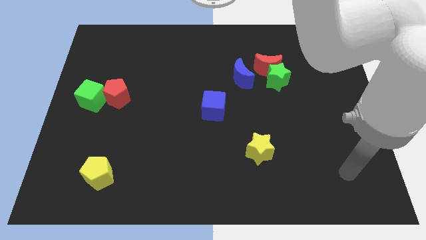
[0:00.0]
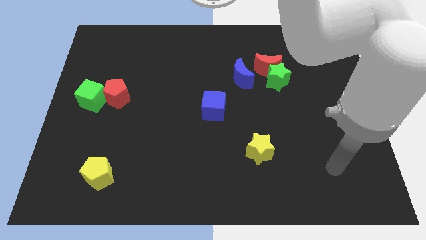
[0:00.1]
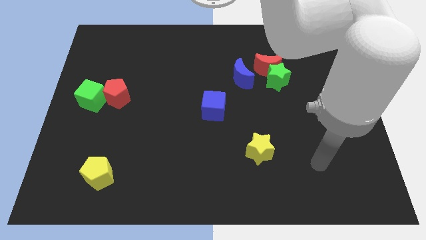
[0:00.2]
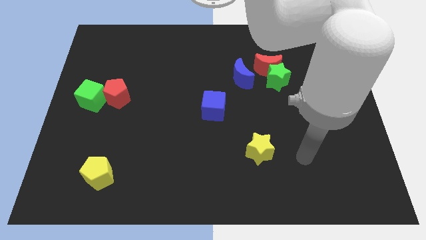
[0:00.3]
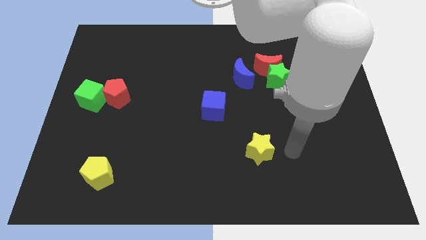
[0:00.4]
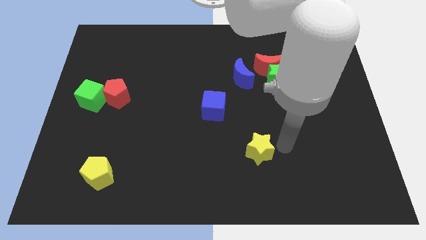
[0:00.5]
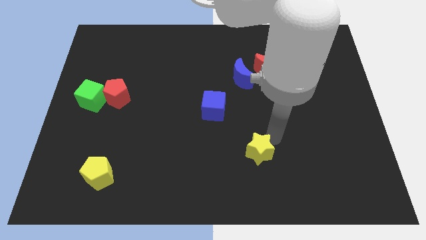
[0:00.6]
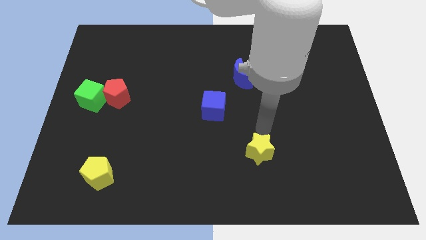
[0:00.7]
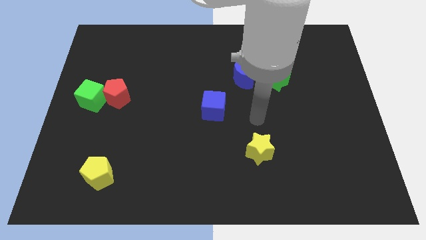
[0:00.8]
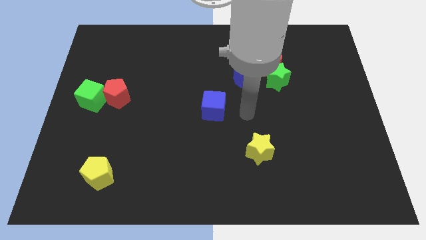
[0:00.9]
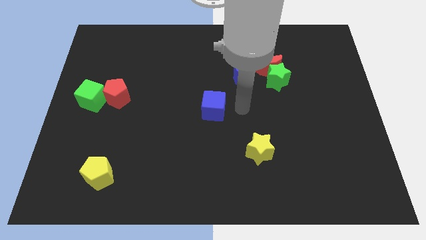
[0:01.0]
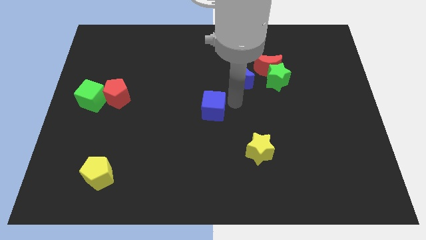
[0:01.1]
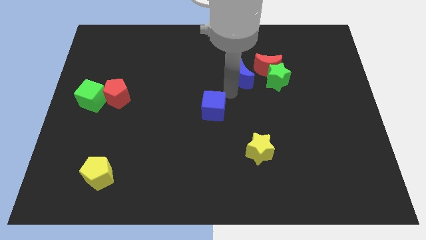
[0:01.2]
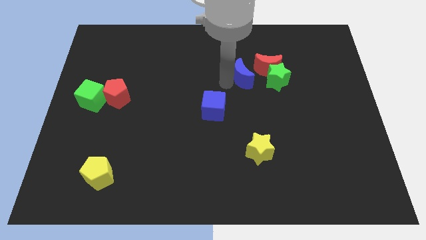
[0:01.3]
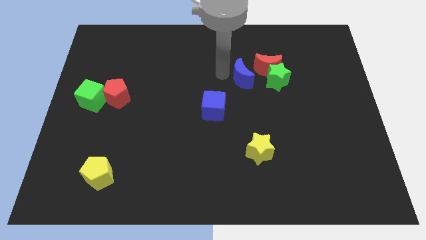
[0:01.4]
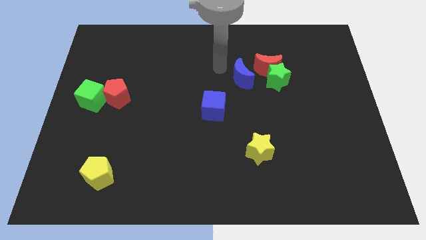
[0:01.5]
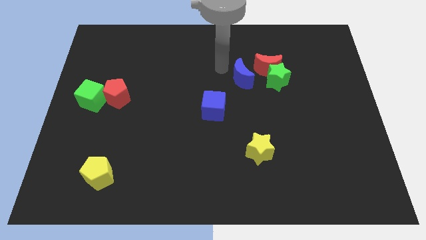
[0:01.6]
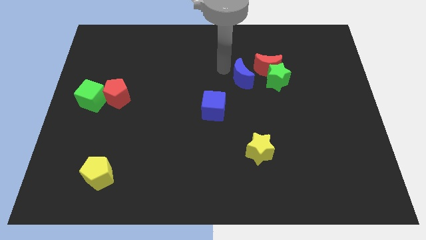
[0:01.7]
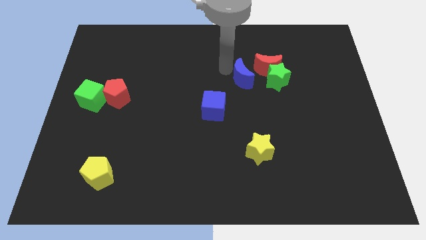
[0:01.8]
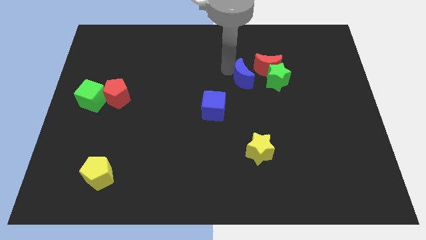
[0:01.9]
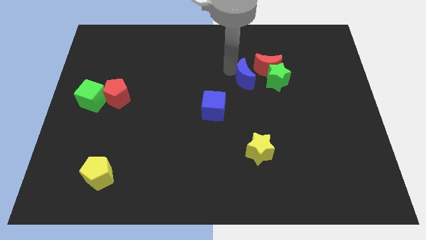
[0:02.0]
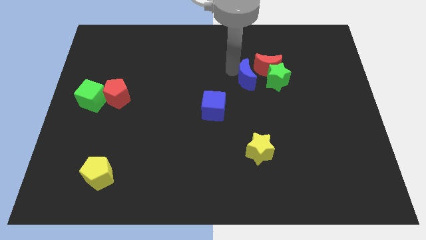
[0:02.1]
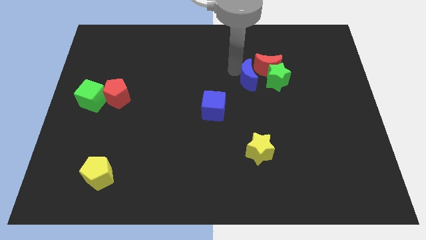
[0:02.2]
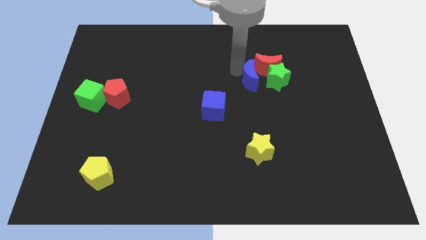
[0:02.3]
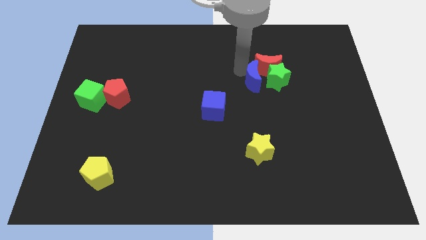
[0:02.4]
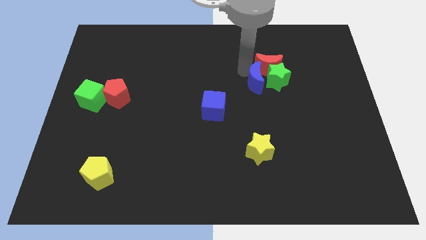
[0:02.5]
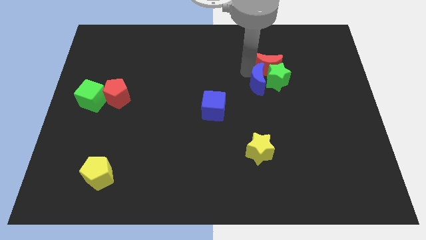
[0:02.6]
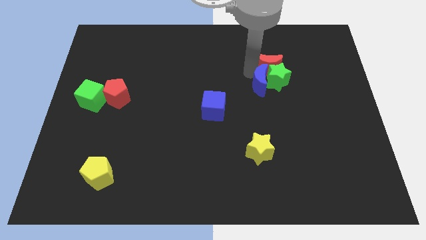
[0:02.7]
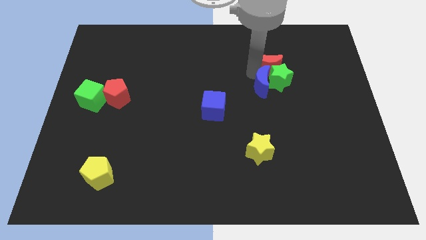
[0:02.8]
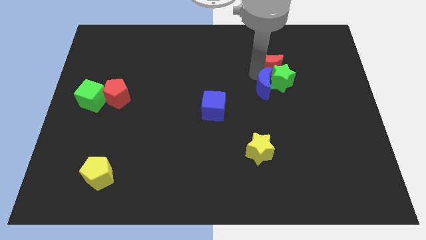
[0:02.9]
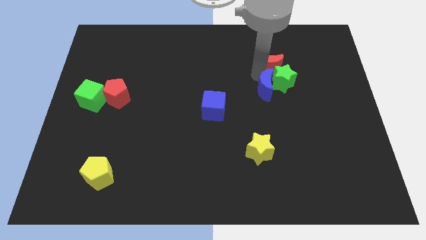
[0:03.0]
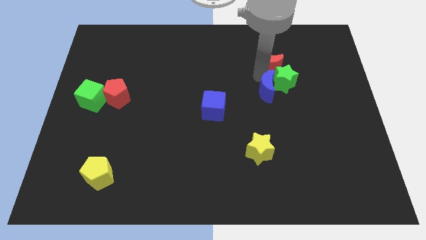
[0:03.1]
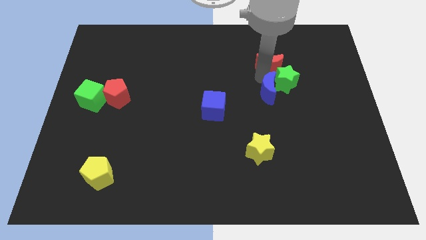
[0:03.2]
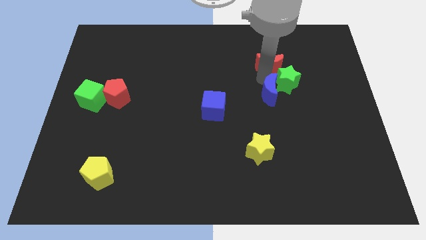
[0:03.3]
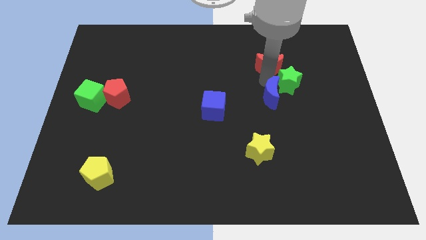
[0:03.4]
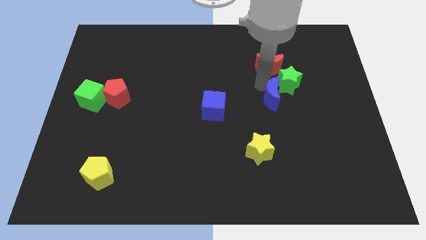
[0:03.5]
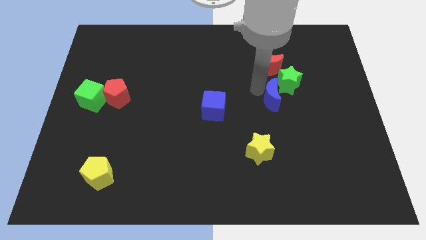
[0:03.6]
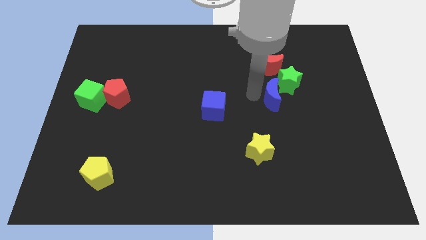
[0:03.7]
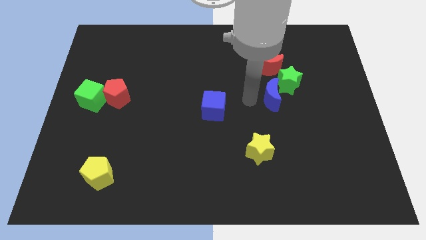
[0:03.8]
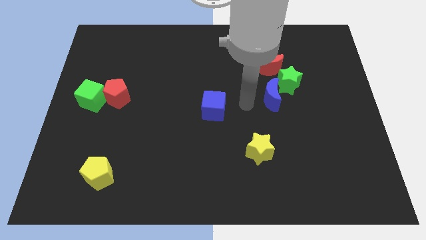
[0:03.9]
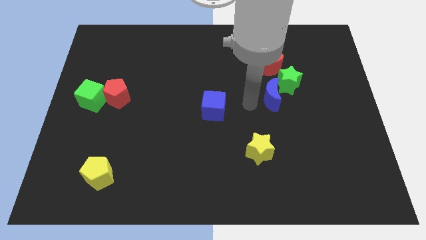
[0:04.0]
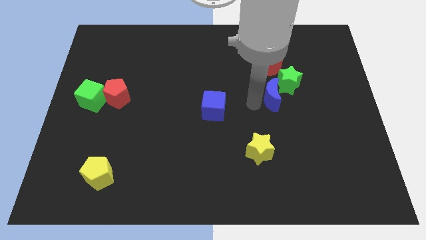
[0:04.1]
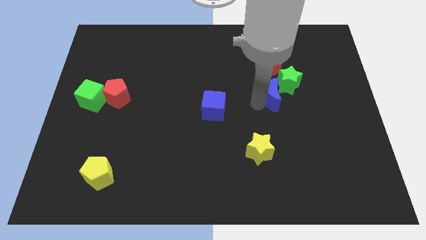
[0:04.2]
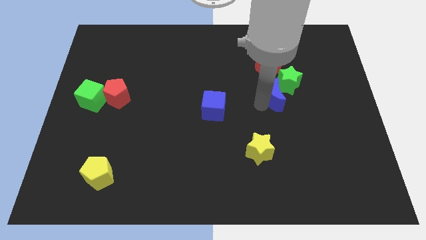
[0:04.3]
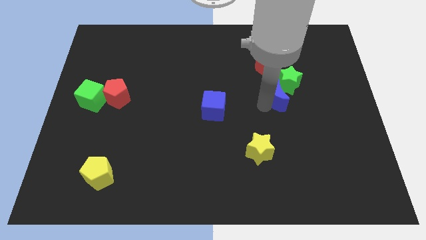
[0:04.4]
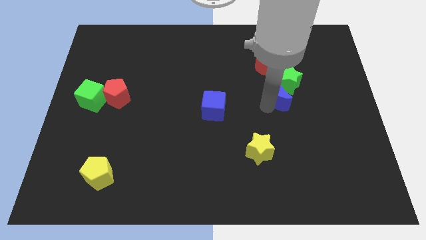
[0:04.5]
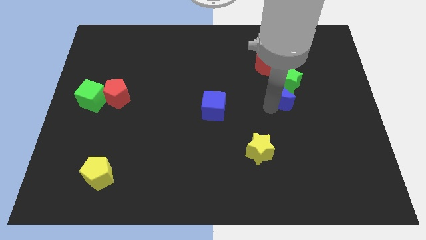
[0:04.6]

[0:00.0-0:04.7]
move the blue moon right a little

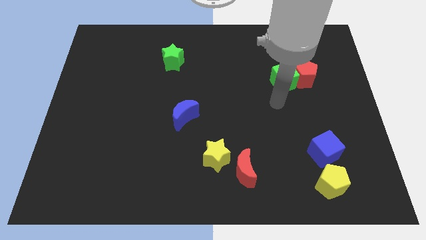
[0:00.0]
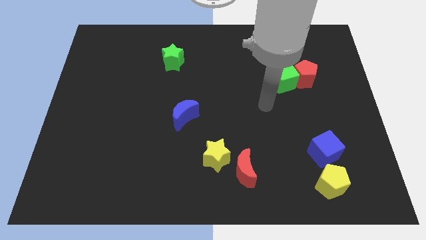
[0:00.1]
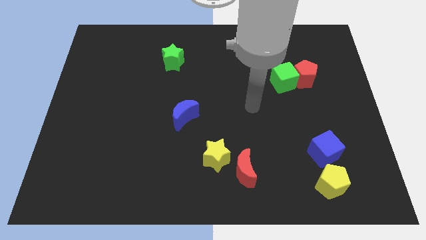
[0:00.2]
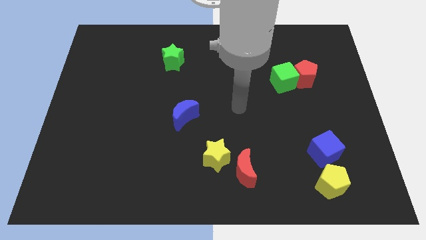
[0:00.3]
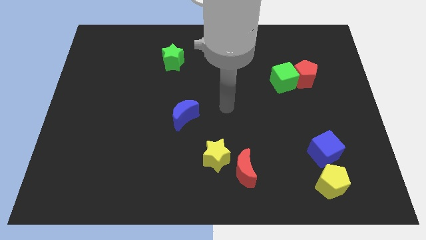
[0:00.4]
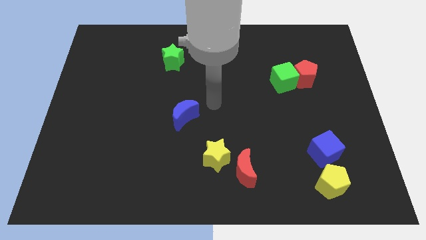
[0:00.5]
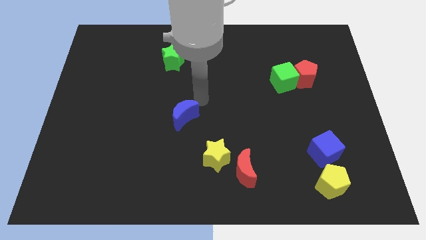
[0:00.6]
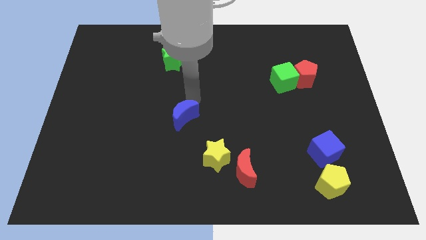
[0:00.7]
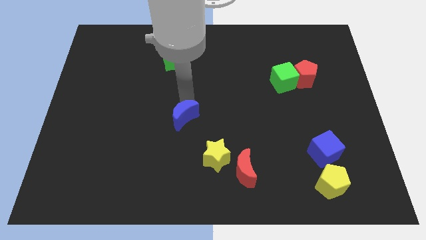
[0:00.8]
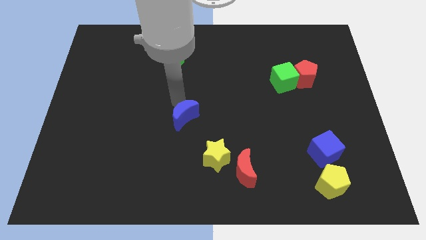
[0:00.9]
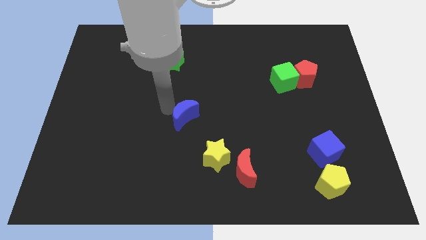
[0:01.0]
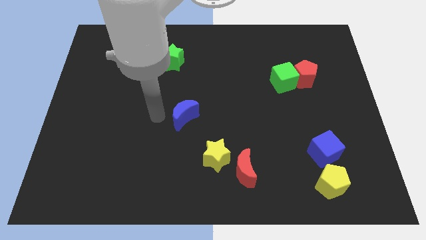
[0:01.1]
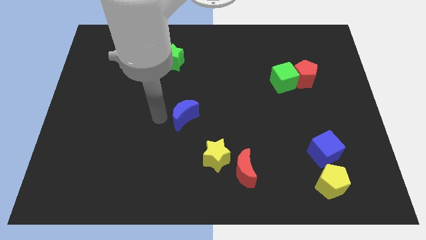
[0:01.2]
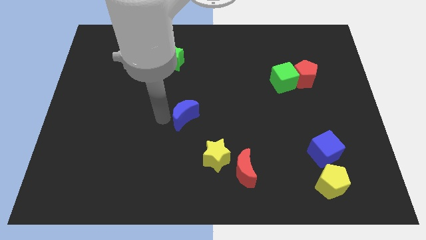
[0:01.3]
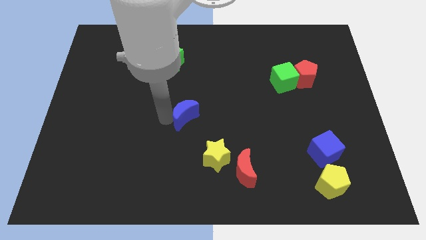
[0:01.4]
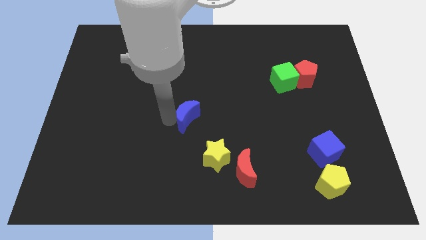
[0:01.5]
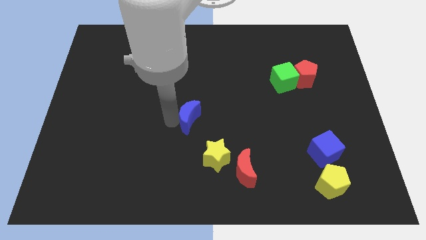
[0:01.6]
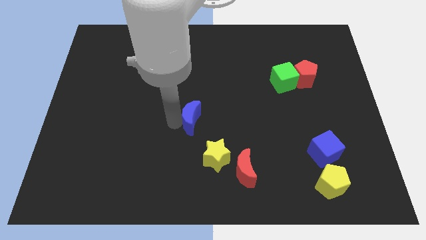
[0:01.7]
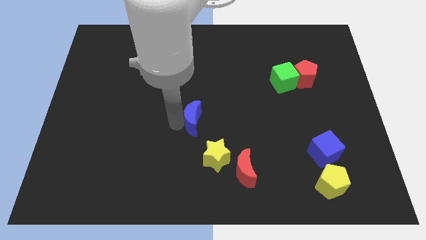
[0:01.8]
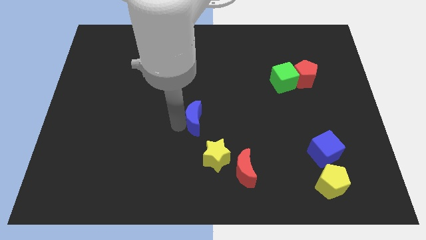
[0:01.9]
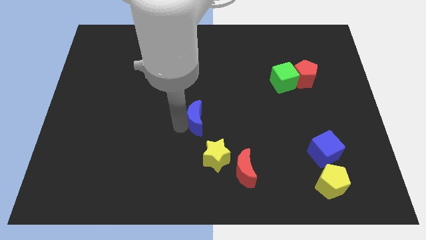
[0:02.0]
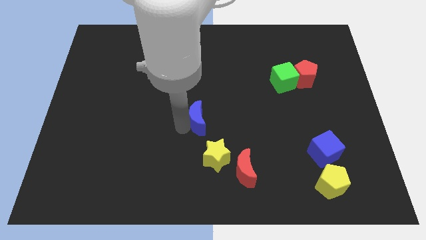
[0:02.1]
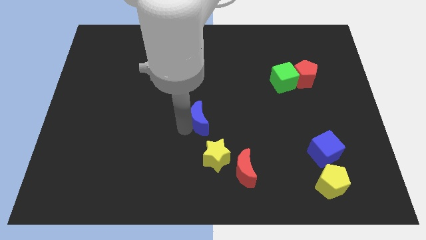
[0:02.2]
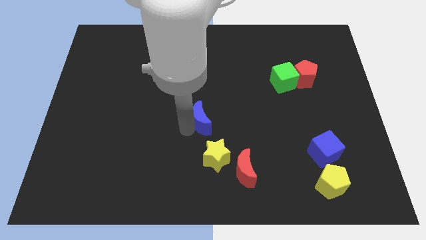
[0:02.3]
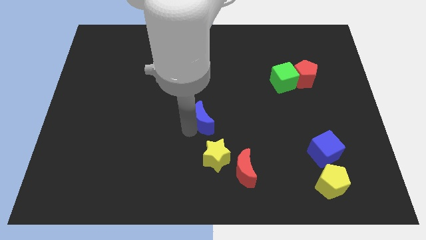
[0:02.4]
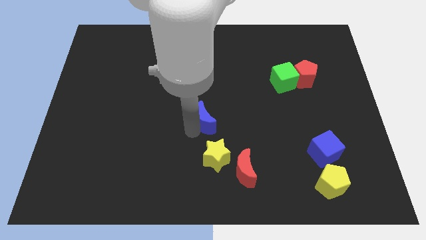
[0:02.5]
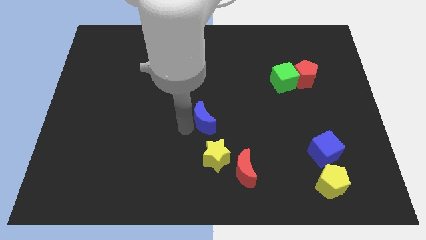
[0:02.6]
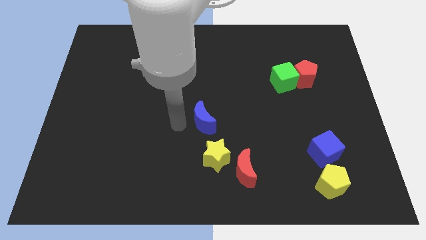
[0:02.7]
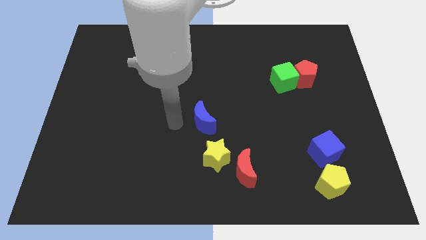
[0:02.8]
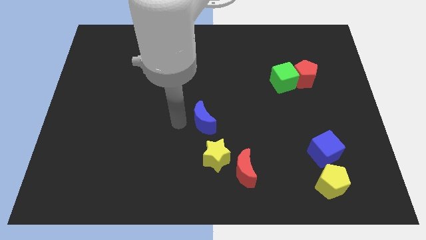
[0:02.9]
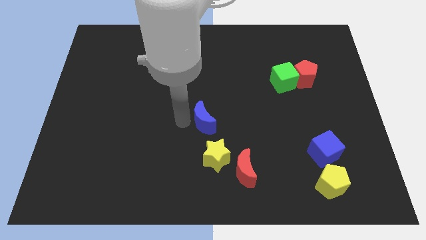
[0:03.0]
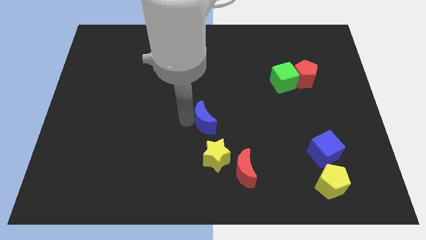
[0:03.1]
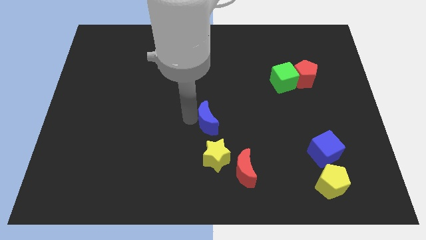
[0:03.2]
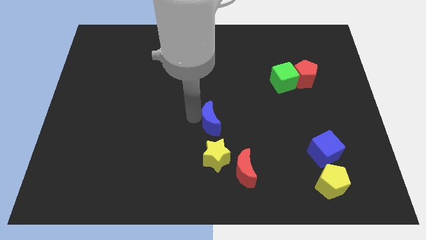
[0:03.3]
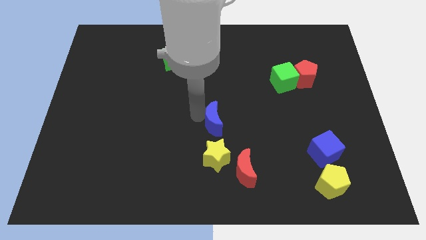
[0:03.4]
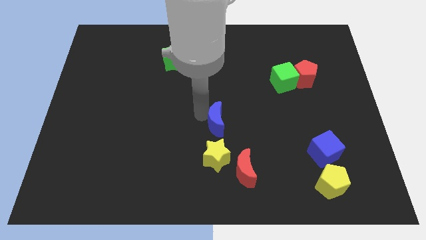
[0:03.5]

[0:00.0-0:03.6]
slightly slide the blue moon to the right

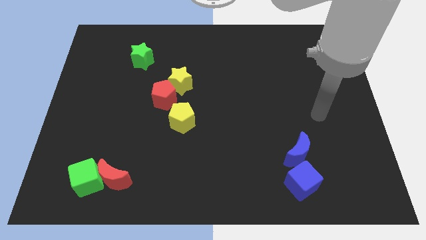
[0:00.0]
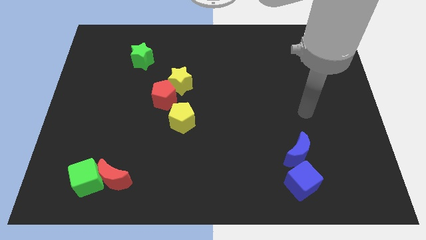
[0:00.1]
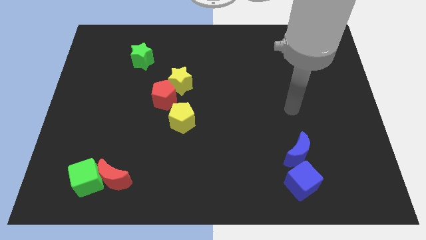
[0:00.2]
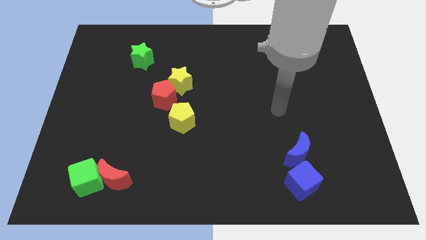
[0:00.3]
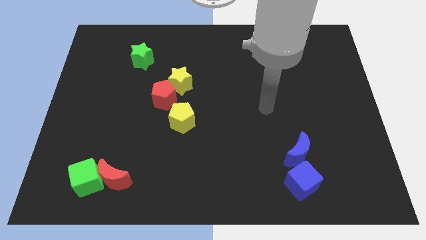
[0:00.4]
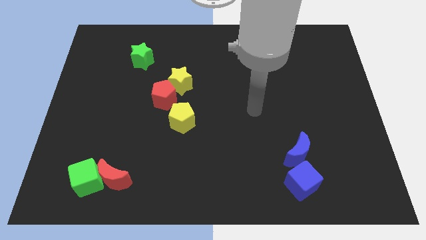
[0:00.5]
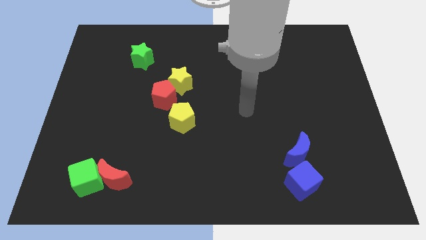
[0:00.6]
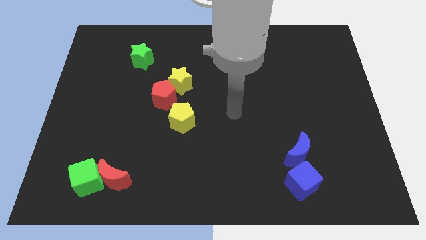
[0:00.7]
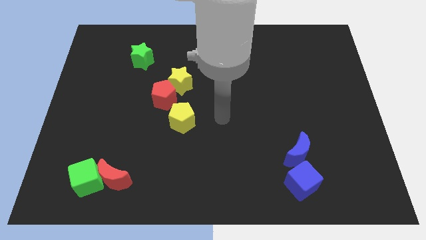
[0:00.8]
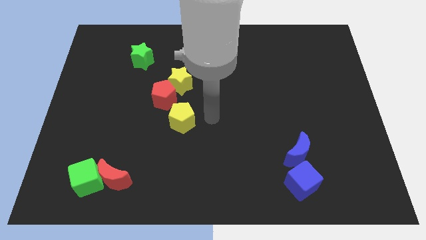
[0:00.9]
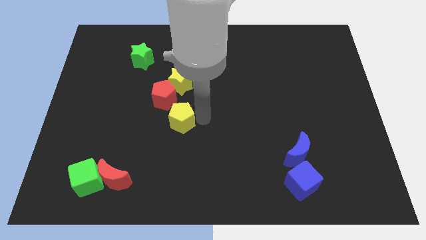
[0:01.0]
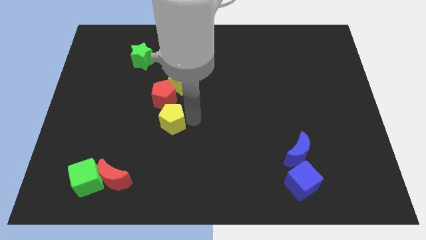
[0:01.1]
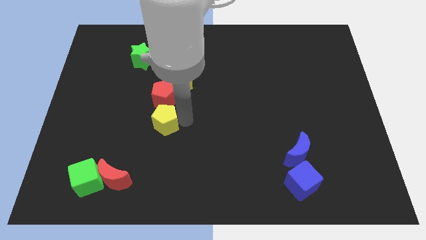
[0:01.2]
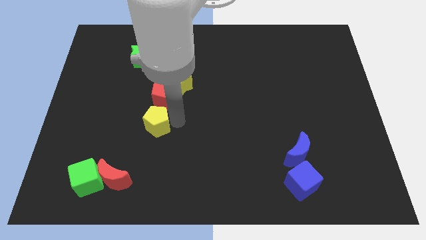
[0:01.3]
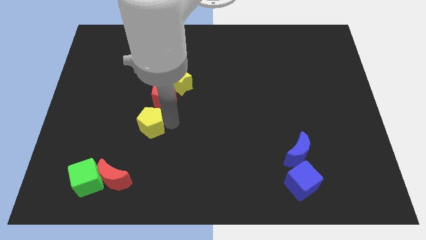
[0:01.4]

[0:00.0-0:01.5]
slightly slide the yellow pentagon left
